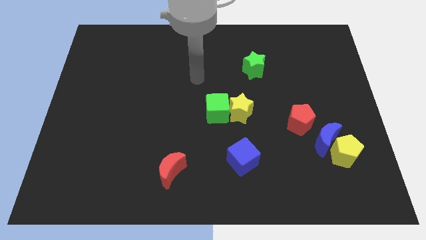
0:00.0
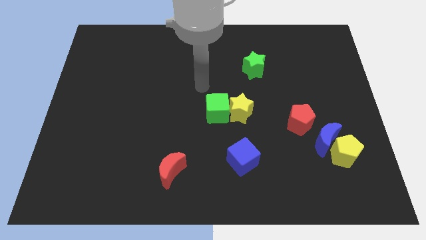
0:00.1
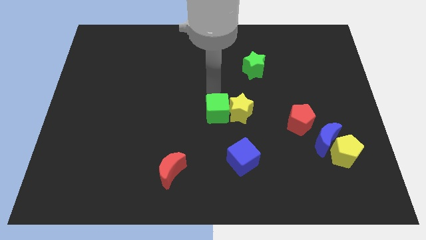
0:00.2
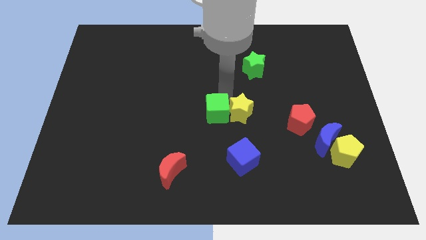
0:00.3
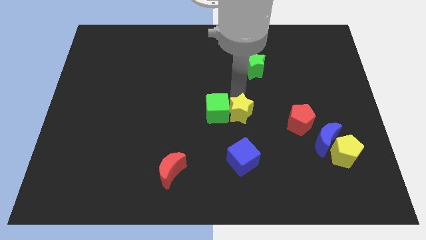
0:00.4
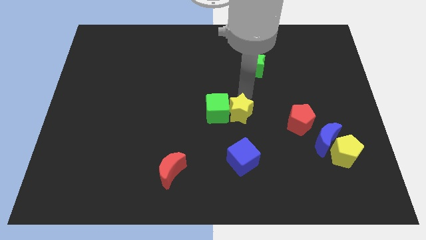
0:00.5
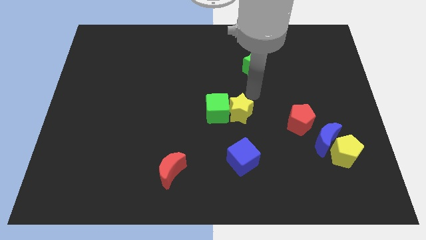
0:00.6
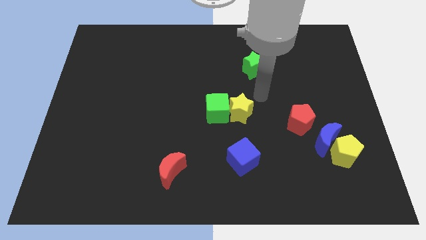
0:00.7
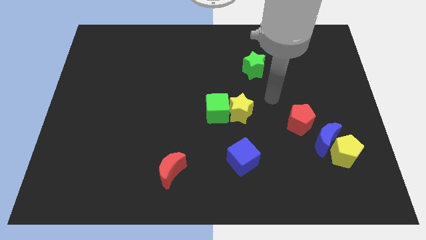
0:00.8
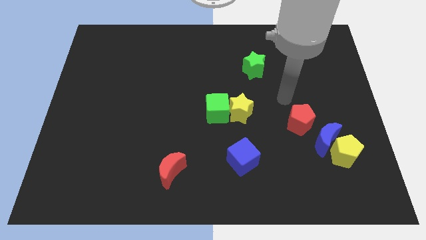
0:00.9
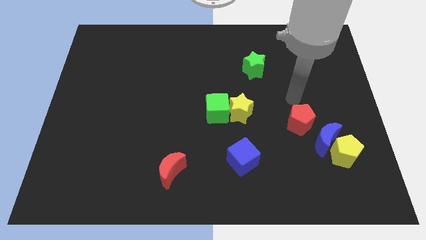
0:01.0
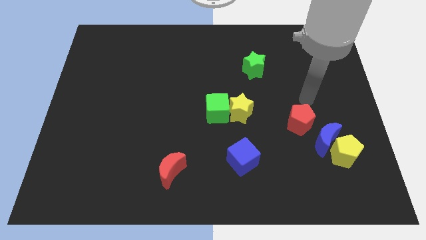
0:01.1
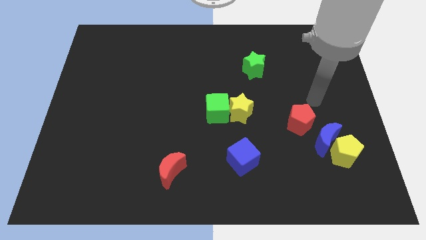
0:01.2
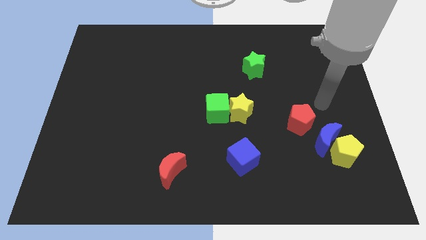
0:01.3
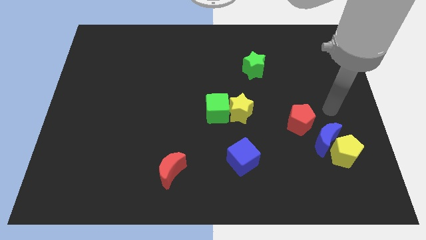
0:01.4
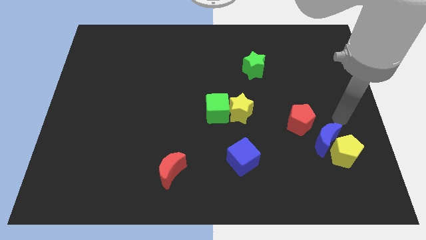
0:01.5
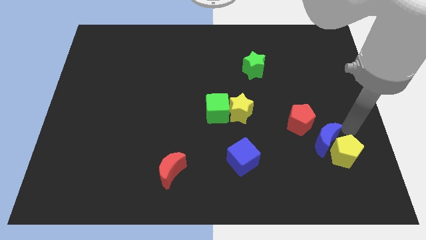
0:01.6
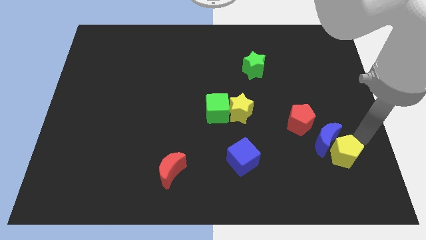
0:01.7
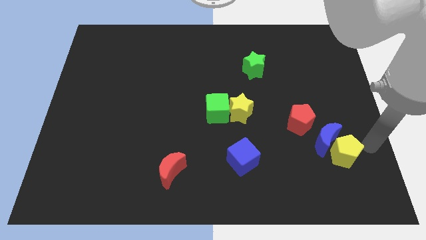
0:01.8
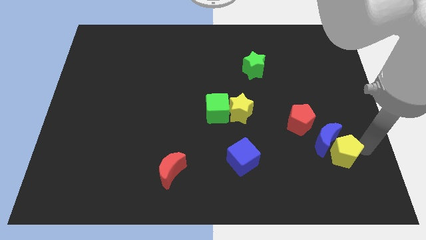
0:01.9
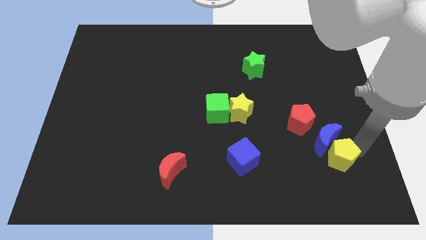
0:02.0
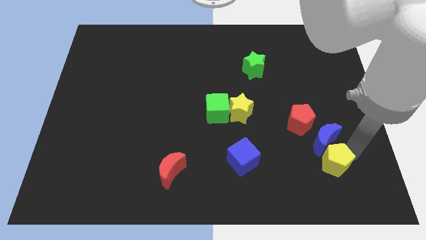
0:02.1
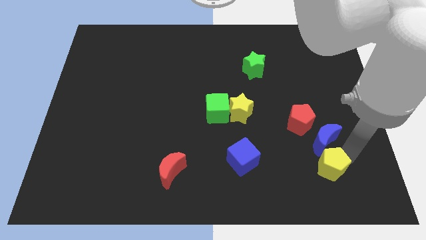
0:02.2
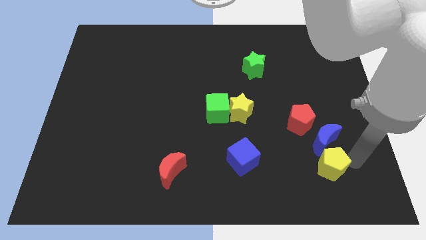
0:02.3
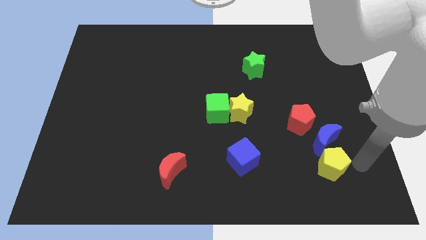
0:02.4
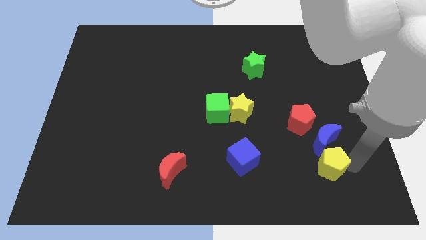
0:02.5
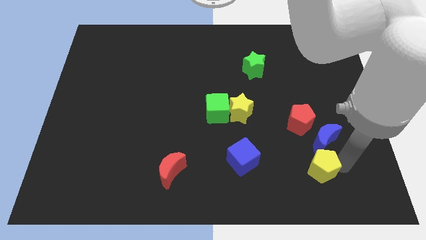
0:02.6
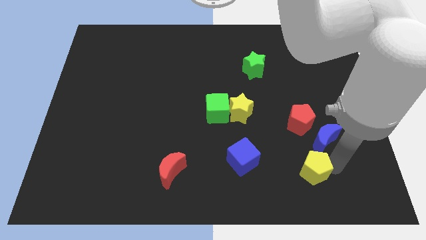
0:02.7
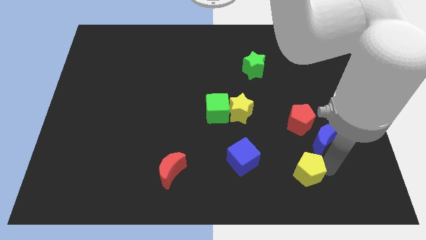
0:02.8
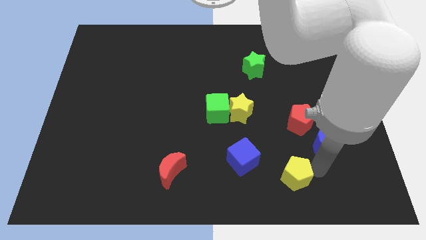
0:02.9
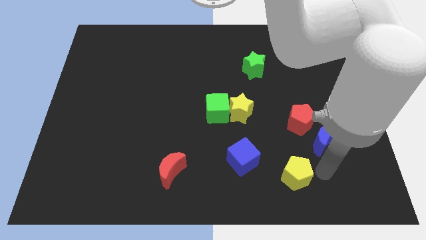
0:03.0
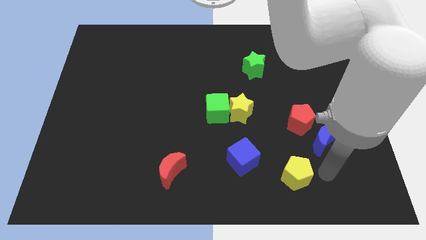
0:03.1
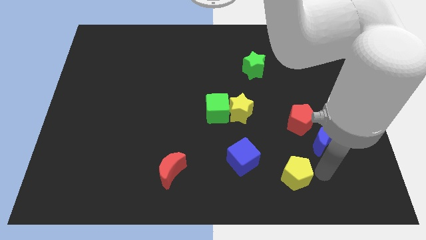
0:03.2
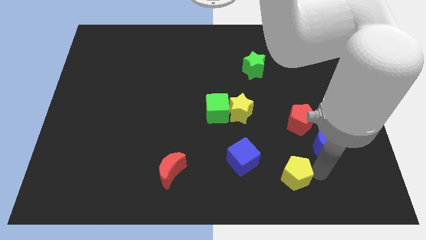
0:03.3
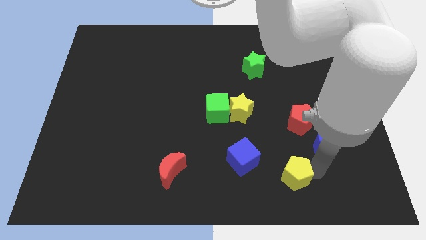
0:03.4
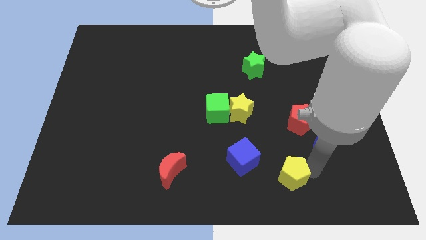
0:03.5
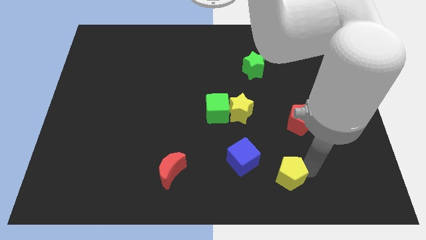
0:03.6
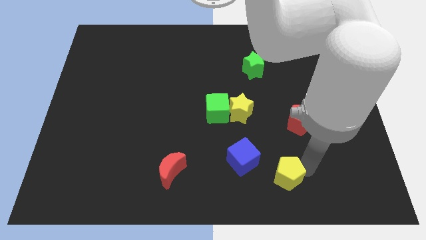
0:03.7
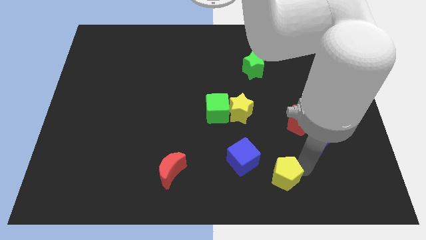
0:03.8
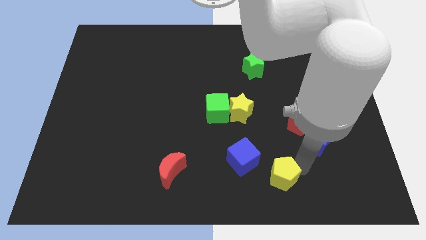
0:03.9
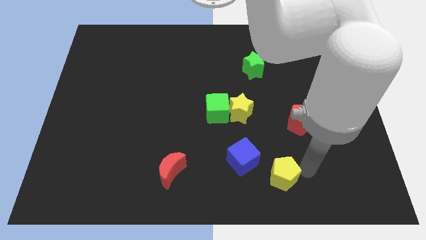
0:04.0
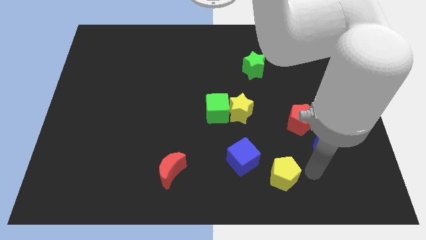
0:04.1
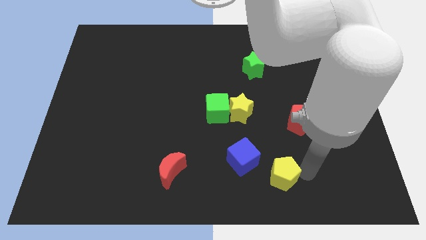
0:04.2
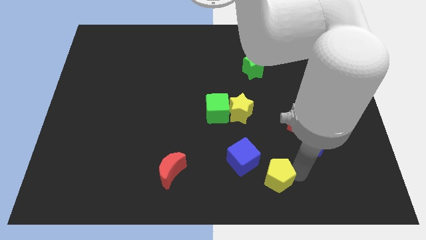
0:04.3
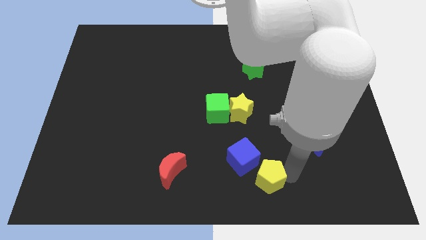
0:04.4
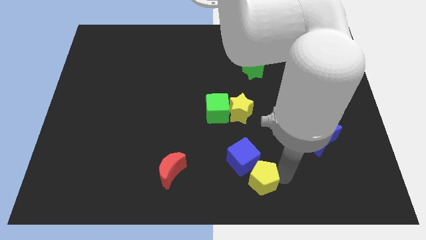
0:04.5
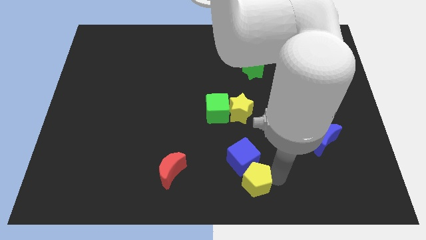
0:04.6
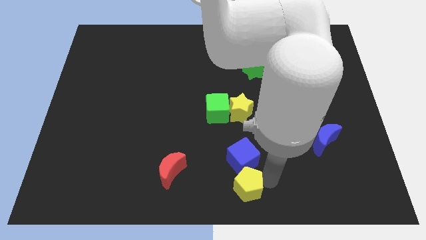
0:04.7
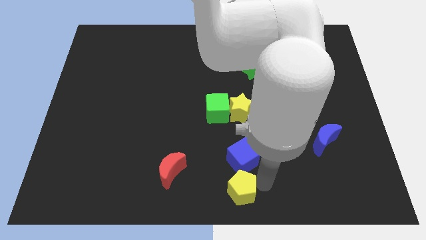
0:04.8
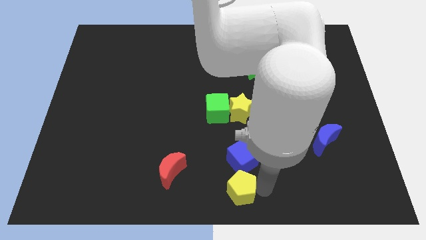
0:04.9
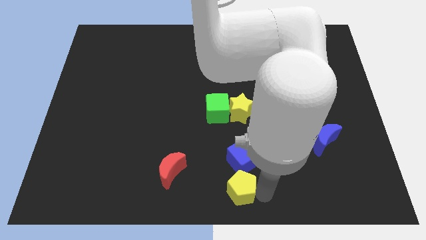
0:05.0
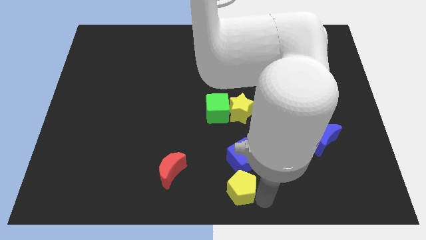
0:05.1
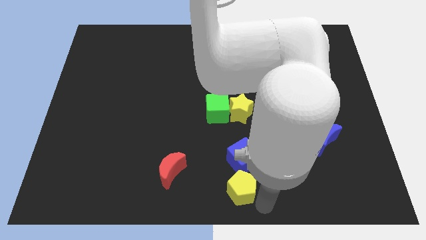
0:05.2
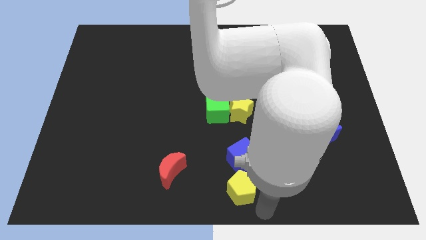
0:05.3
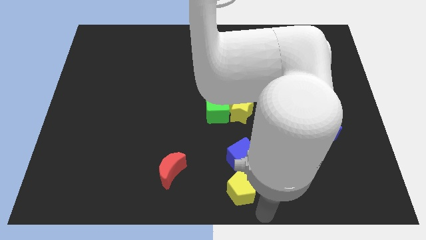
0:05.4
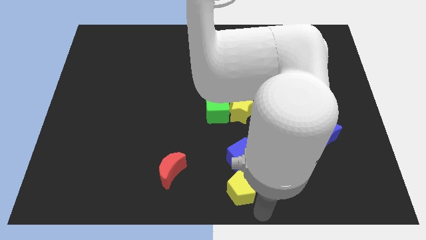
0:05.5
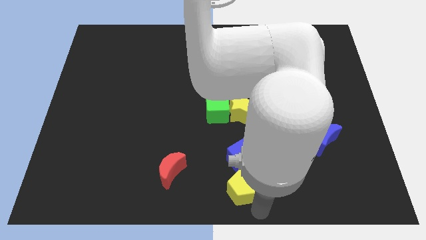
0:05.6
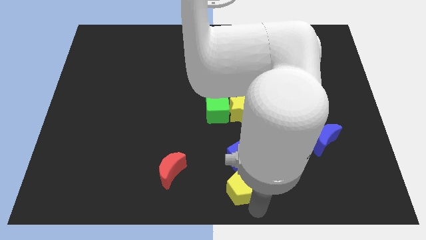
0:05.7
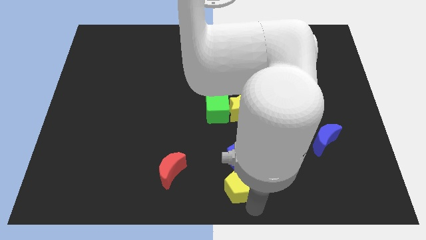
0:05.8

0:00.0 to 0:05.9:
slide the yellow pentagon left

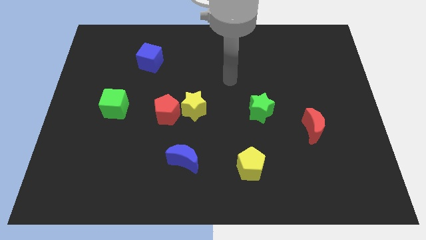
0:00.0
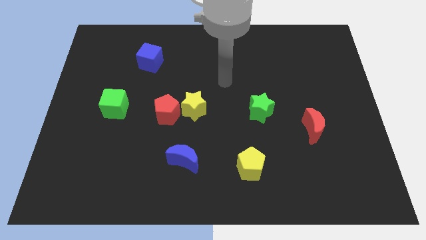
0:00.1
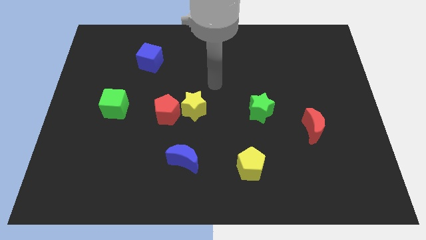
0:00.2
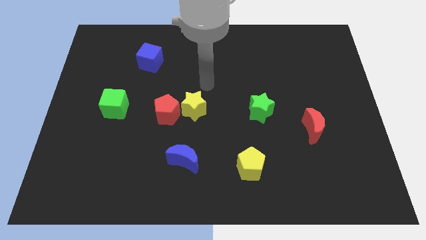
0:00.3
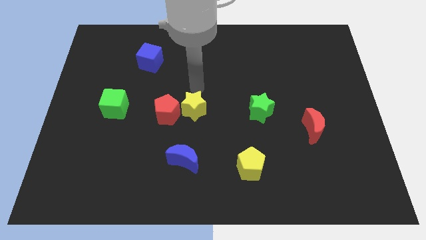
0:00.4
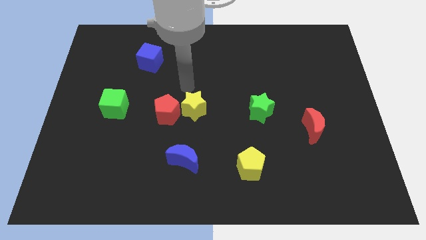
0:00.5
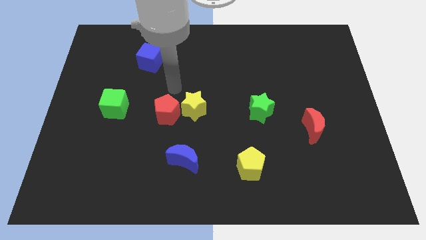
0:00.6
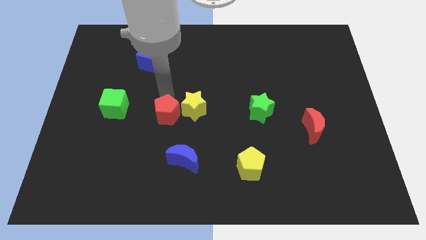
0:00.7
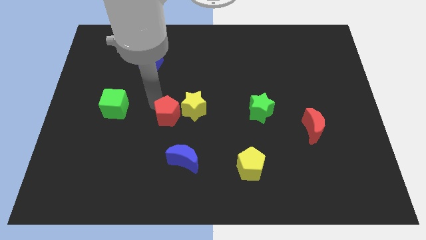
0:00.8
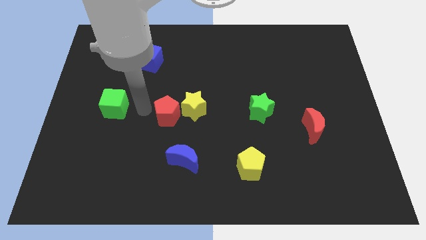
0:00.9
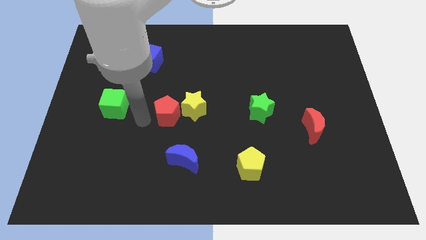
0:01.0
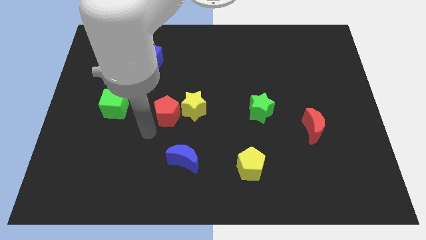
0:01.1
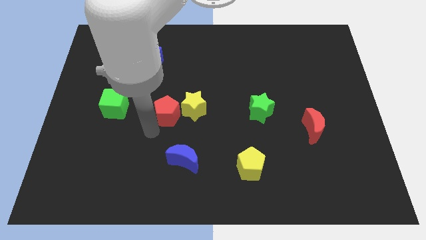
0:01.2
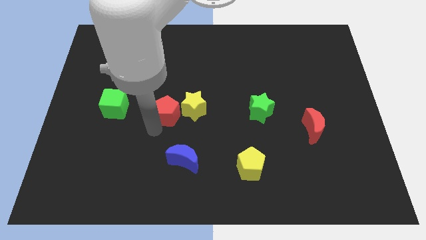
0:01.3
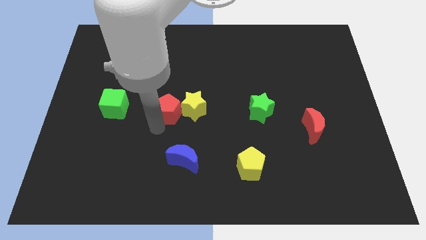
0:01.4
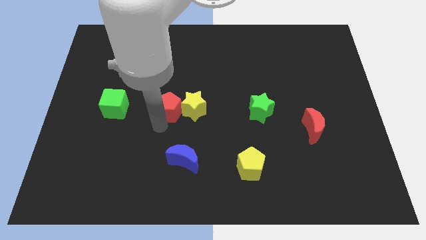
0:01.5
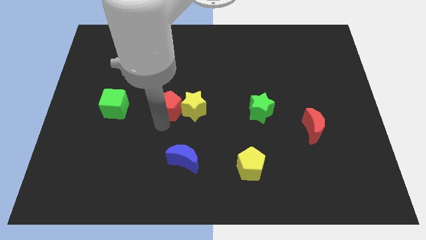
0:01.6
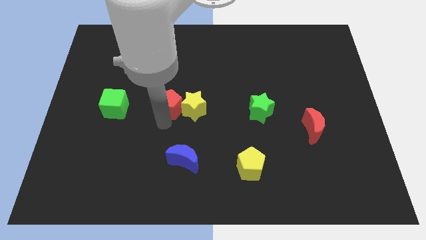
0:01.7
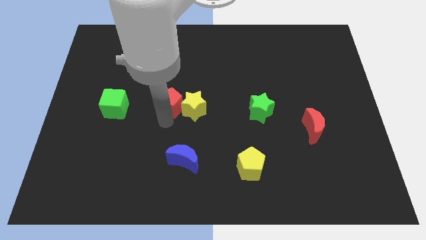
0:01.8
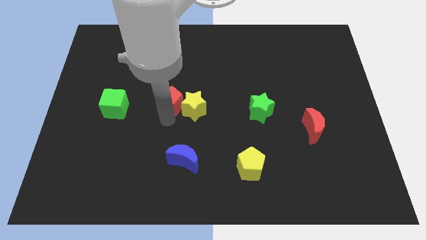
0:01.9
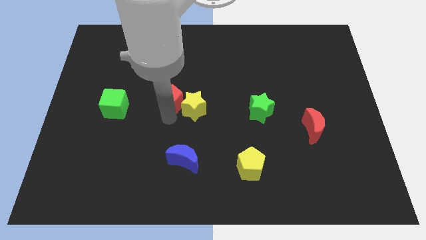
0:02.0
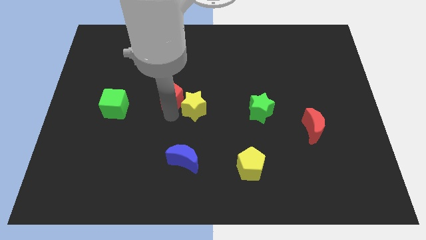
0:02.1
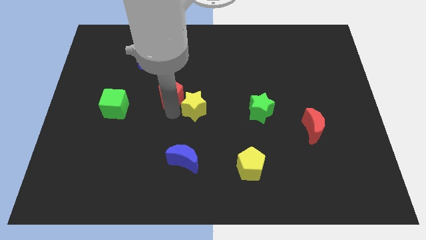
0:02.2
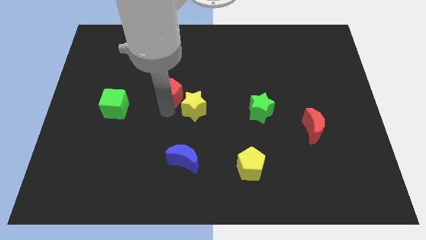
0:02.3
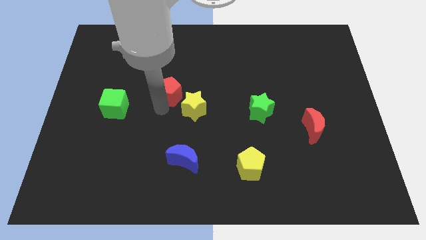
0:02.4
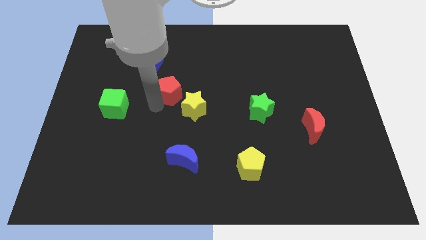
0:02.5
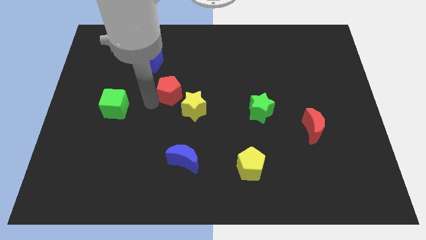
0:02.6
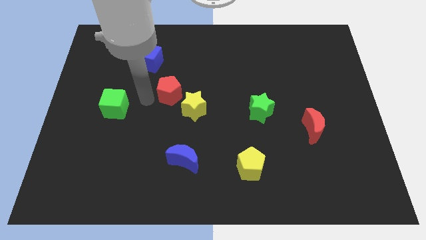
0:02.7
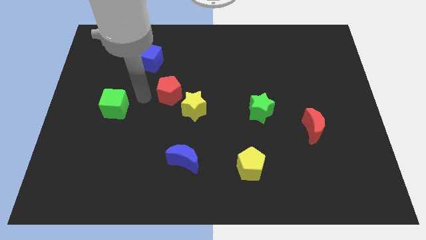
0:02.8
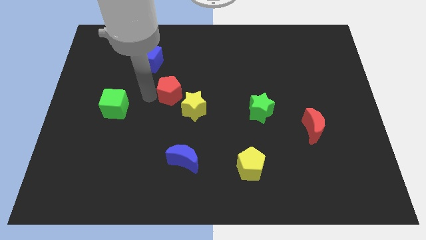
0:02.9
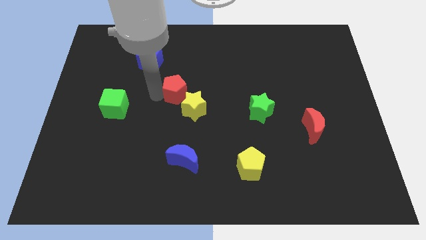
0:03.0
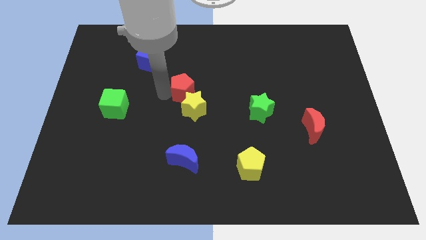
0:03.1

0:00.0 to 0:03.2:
slightly push the red pentagon upwards and right
